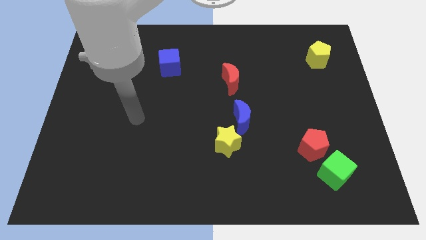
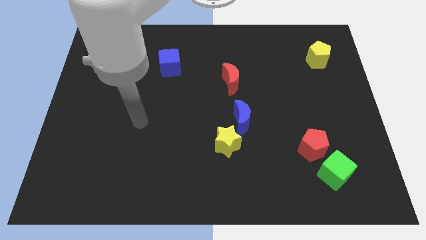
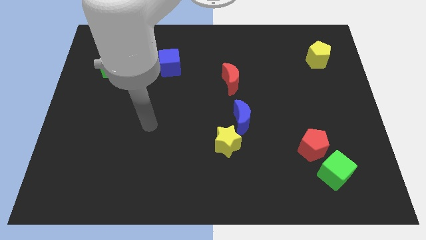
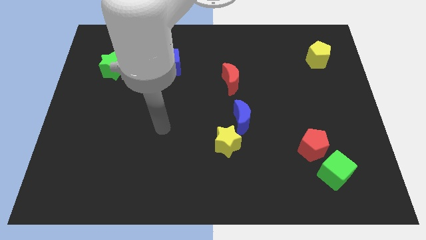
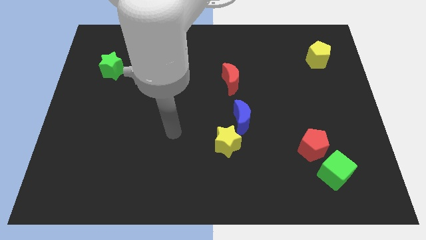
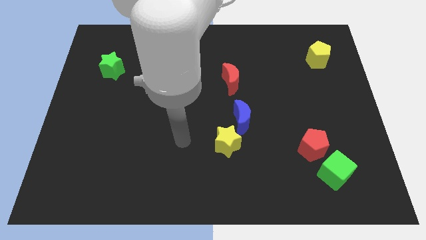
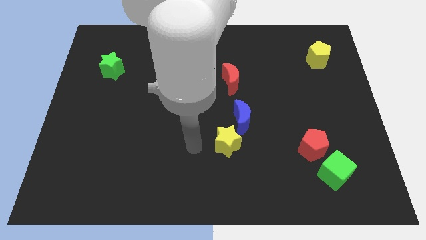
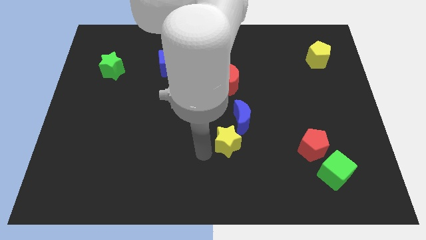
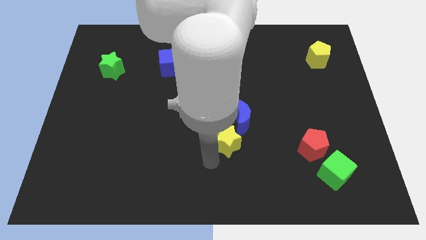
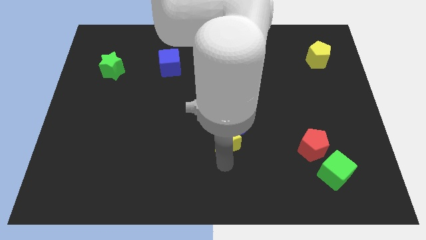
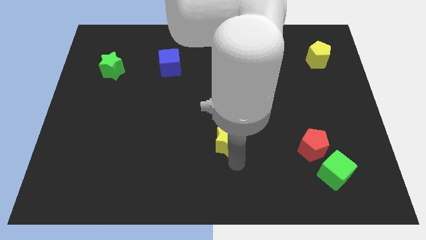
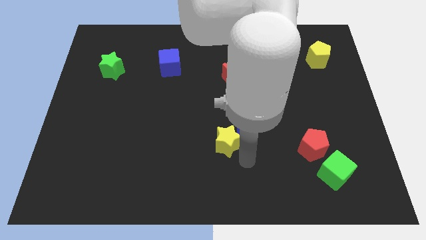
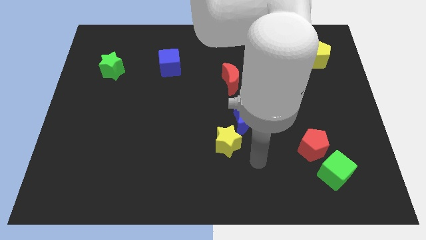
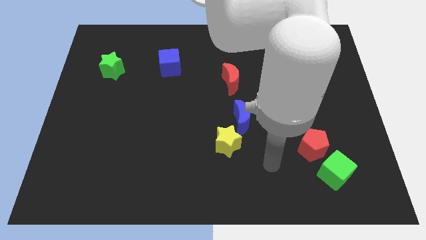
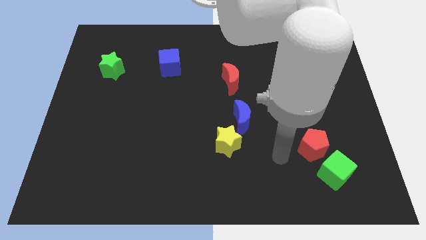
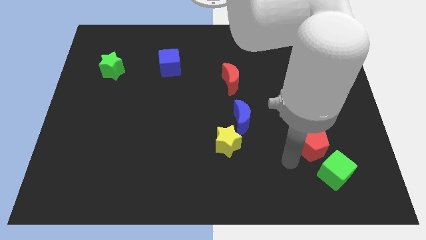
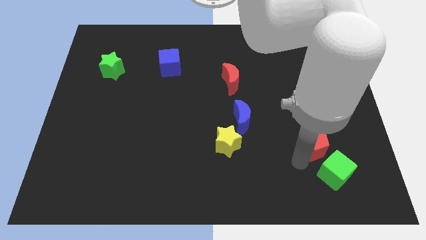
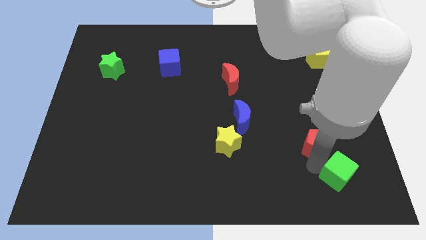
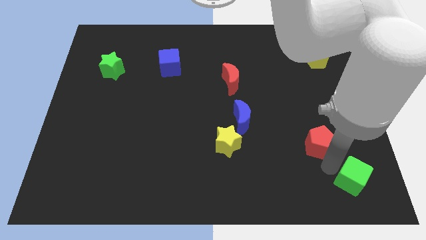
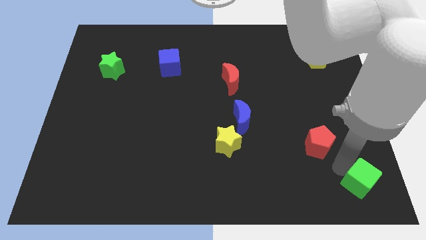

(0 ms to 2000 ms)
pull the red pentagon apart from the green cube

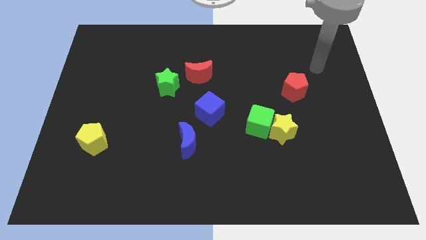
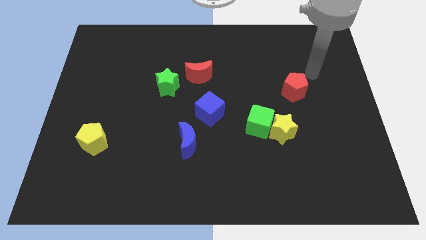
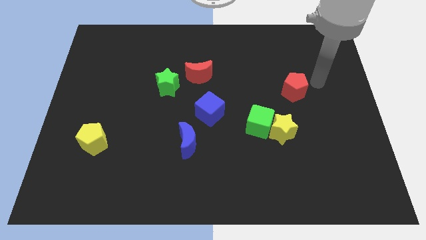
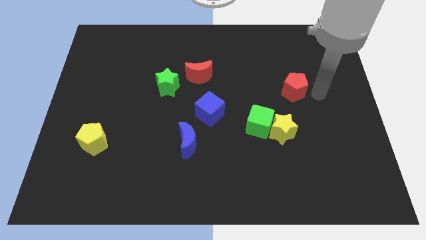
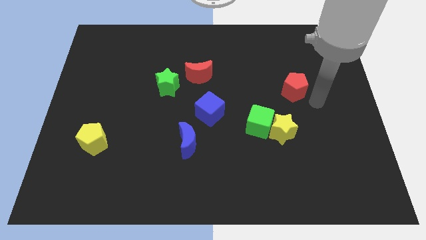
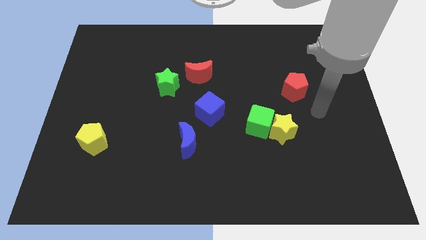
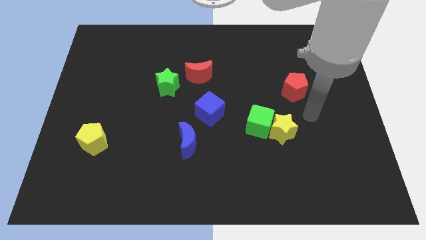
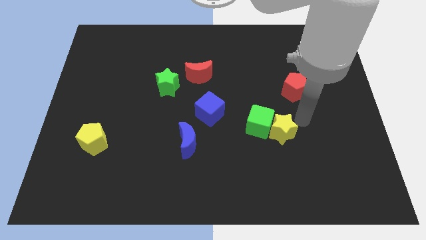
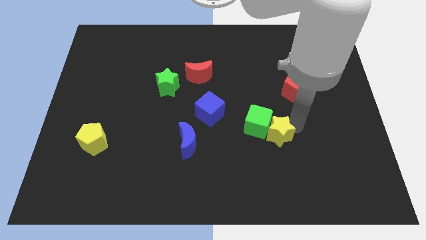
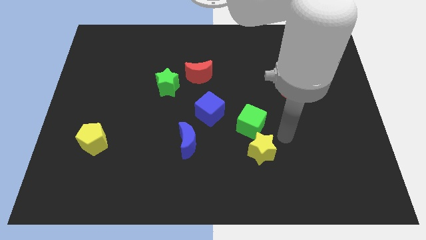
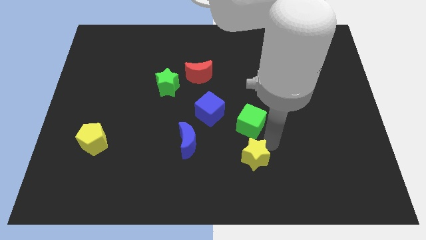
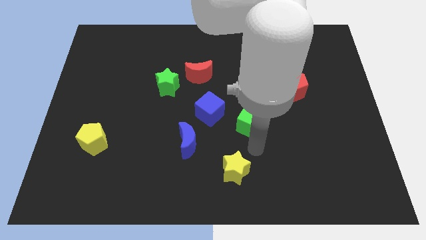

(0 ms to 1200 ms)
move the green cube away from the yellow star

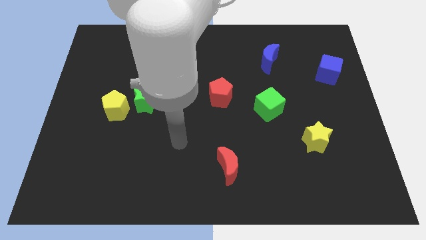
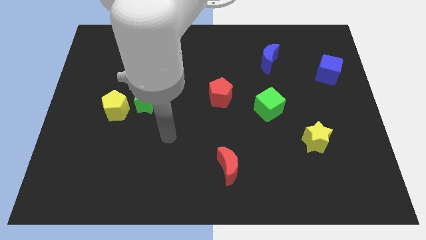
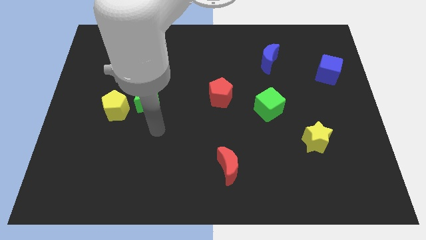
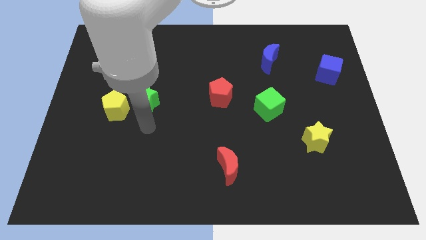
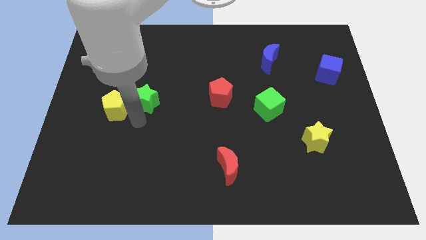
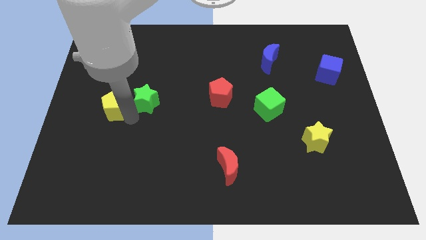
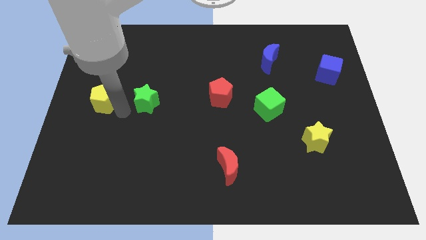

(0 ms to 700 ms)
pull the green star apart from the yellow pentagon

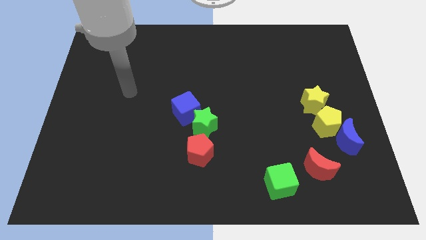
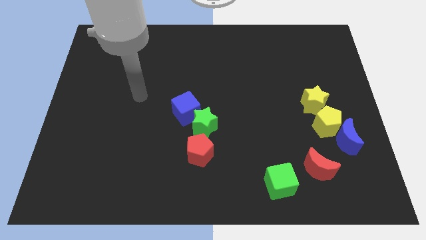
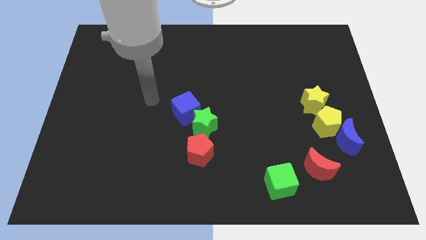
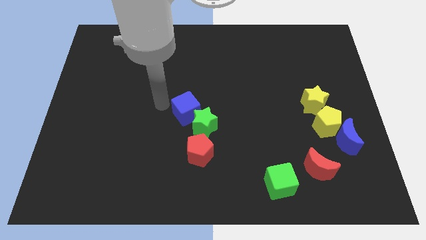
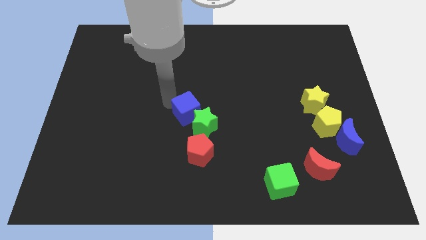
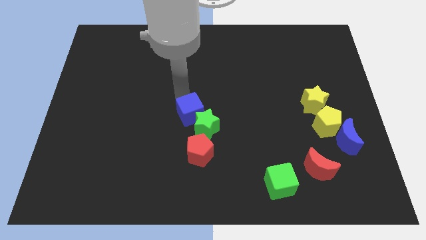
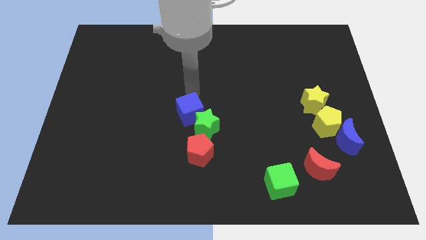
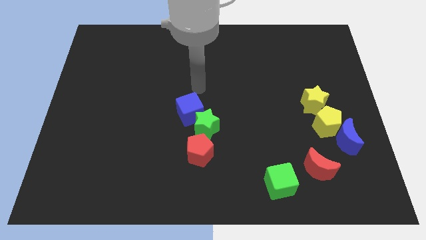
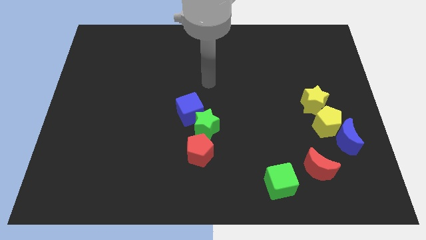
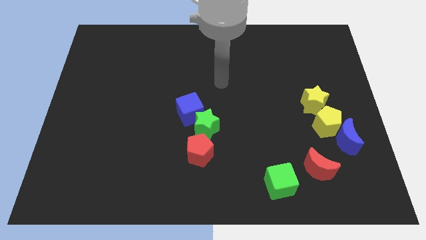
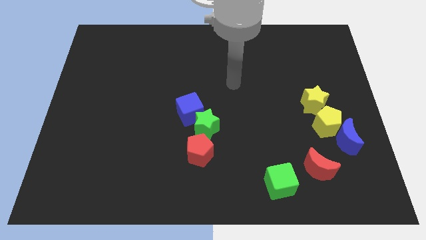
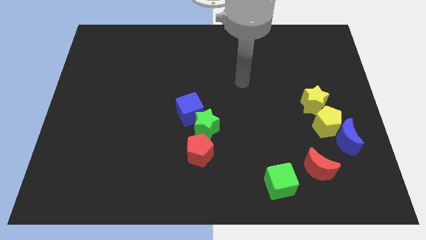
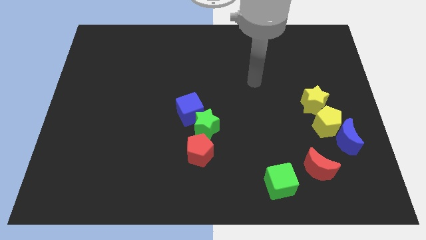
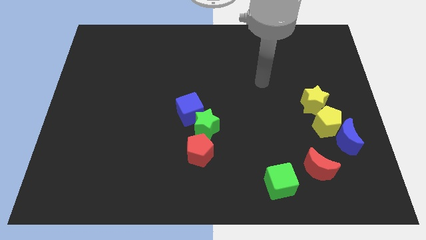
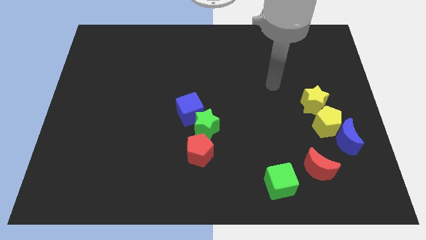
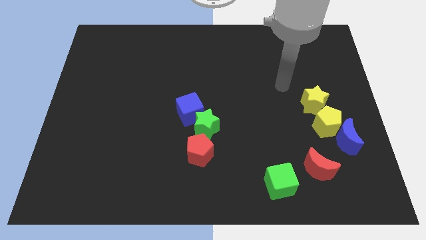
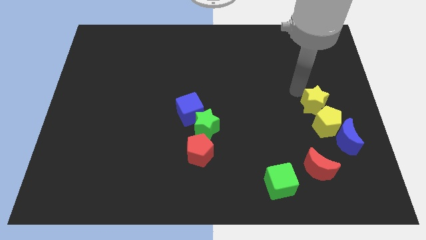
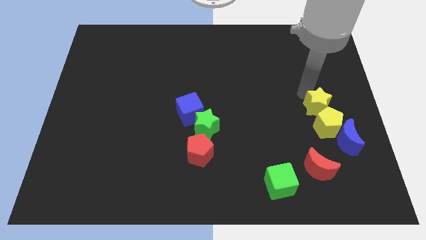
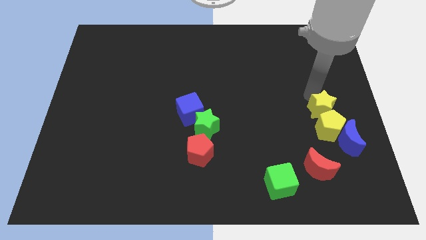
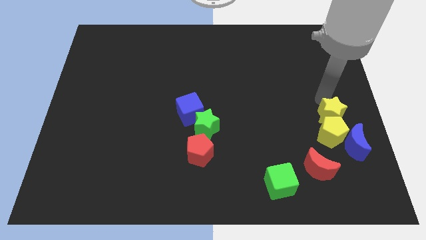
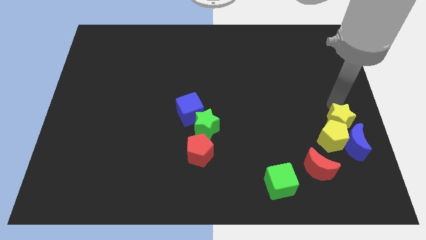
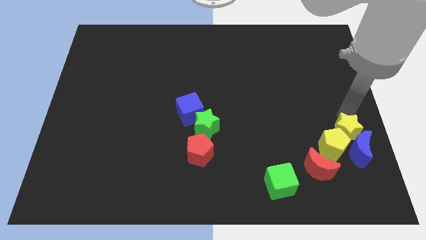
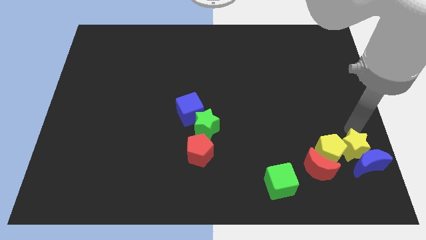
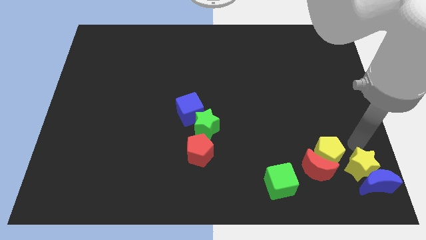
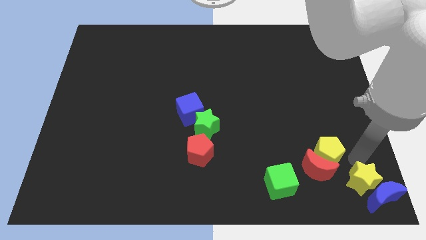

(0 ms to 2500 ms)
separate the yellow pentagon from the blue moon and yellow star

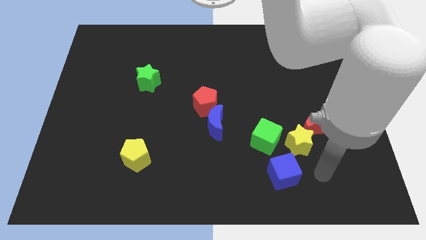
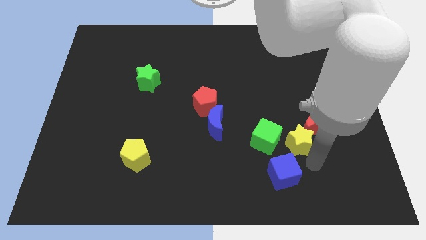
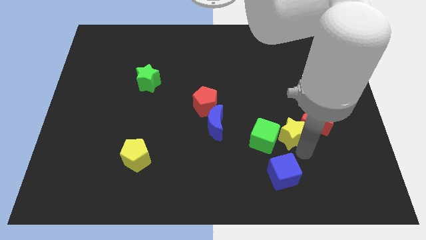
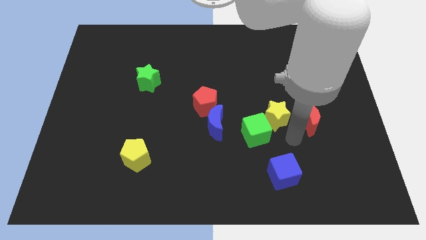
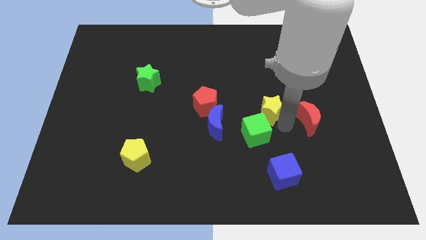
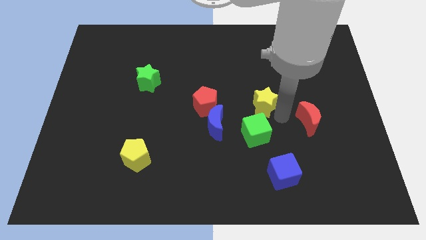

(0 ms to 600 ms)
move the red moon away from the yellow star

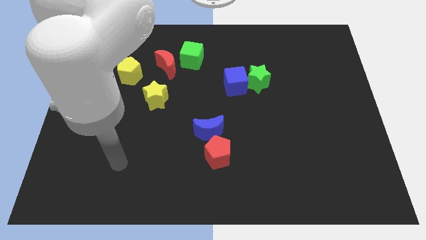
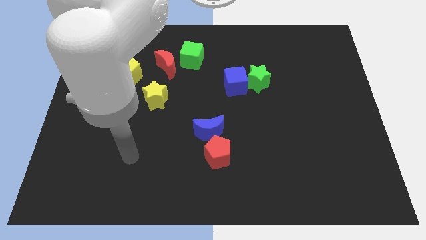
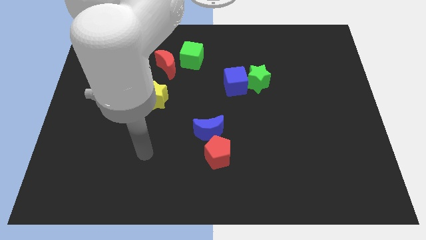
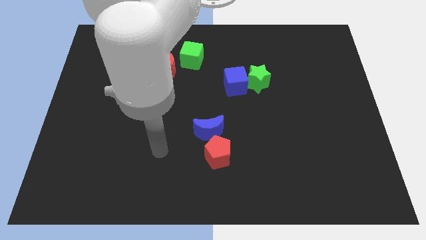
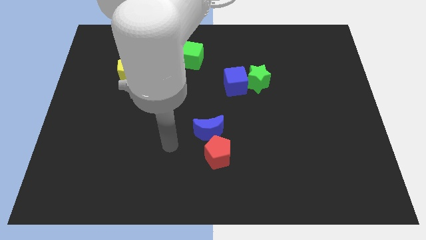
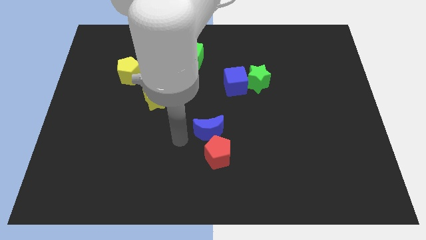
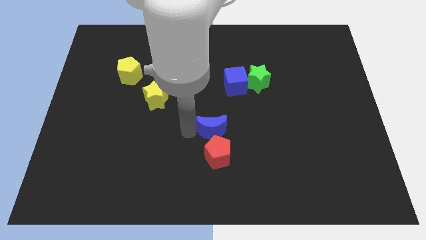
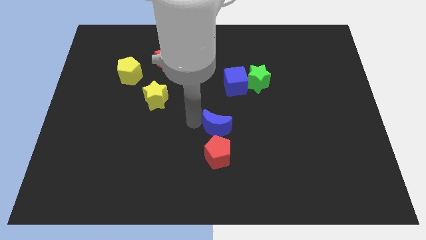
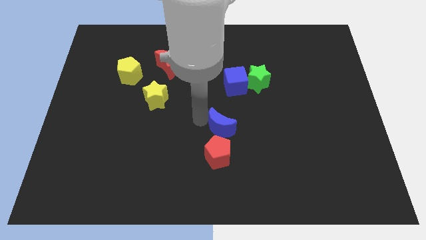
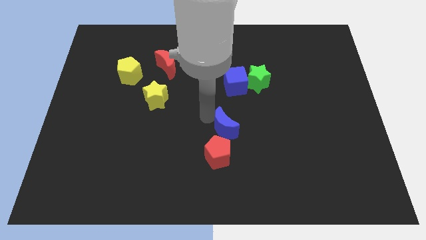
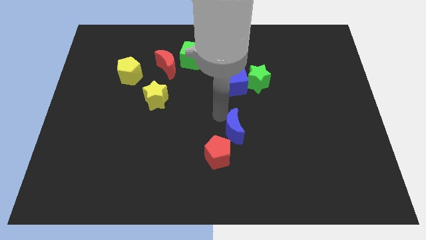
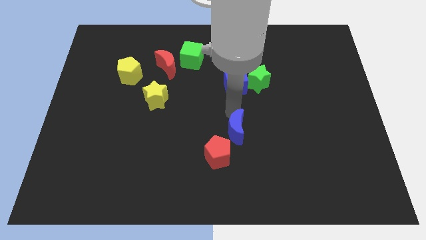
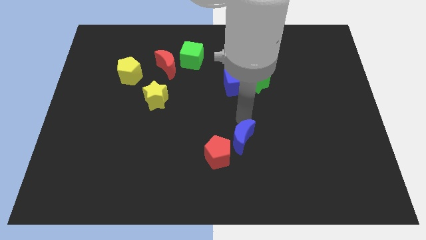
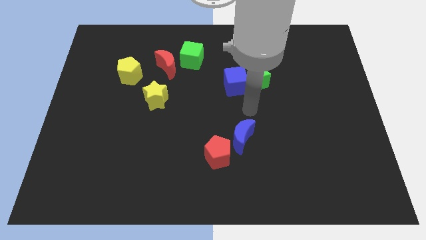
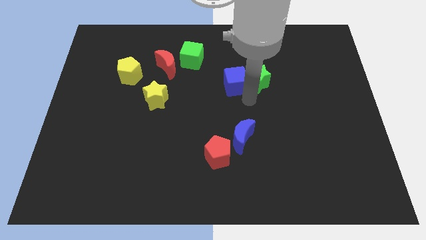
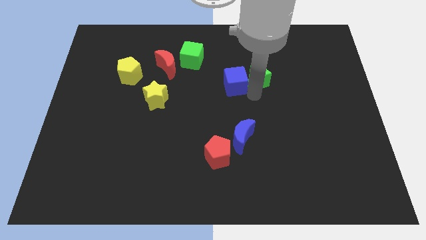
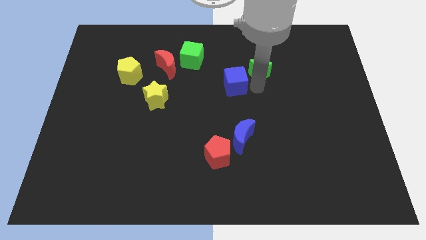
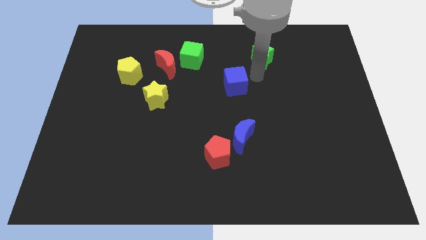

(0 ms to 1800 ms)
separate the blue cube from the green star

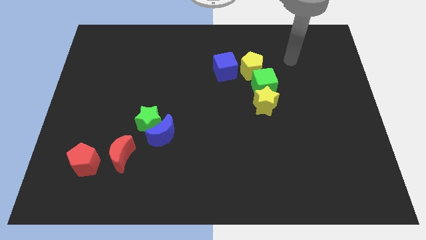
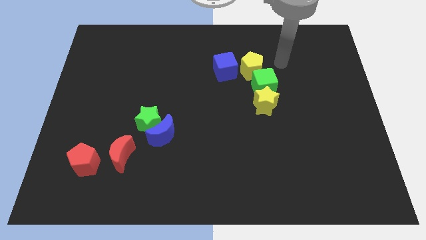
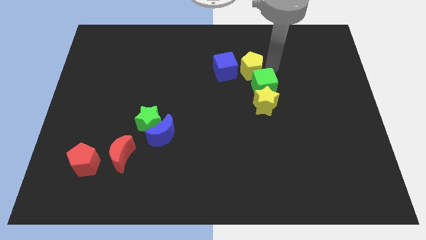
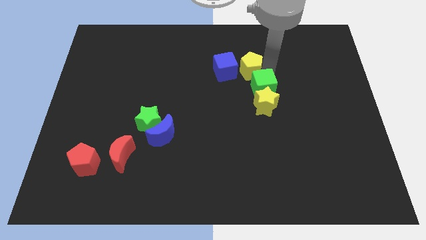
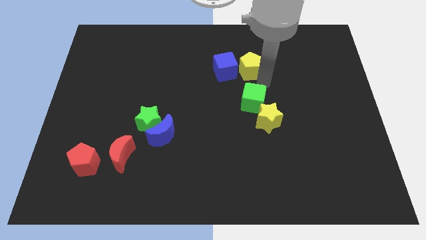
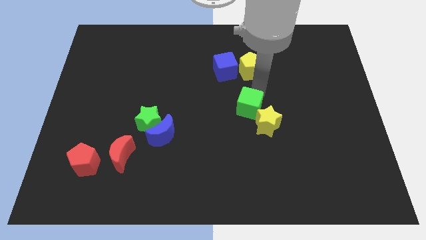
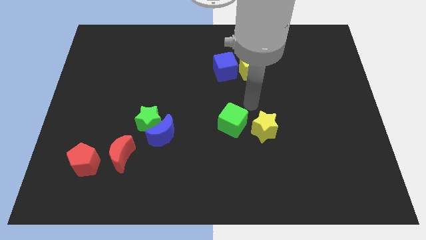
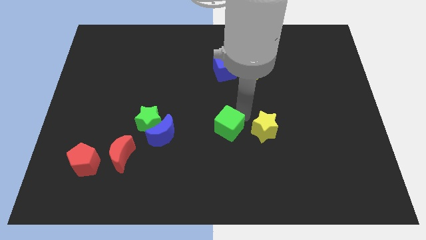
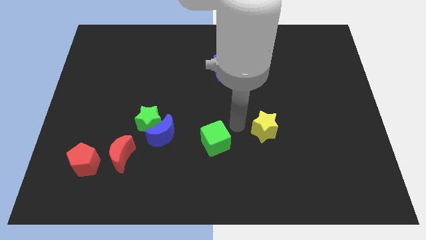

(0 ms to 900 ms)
move the yellow star away from the green cube
